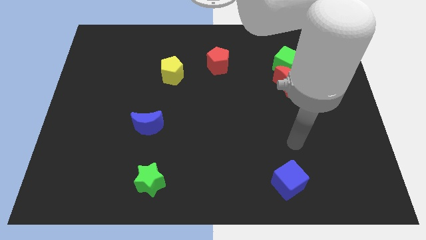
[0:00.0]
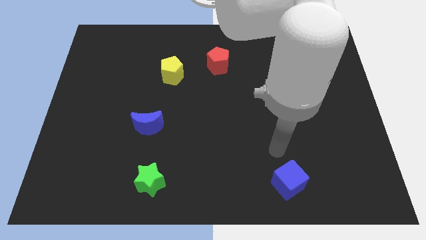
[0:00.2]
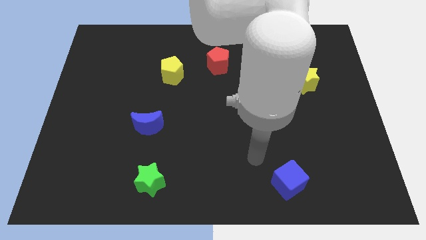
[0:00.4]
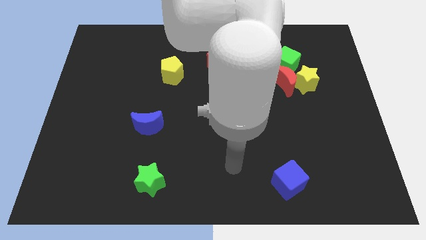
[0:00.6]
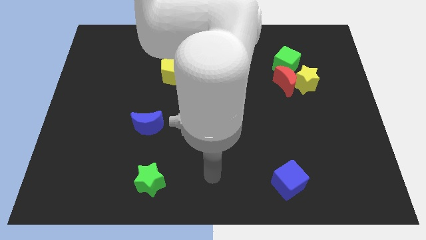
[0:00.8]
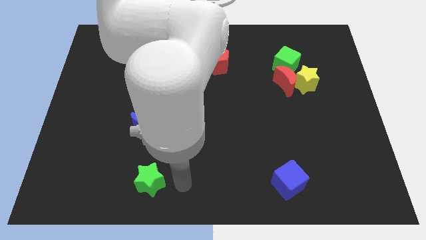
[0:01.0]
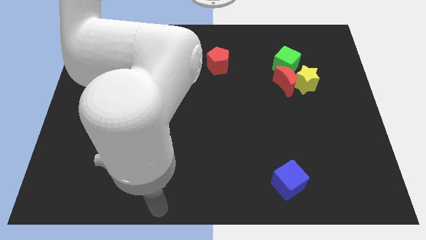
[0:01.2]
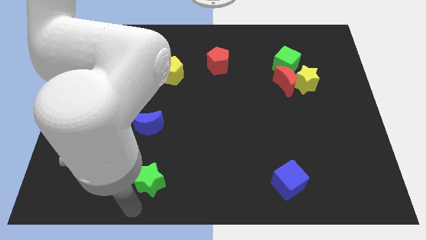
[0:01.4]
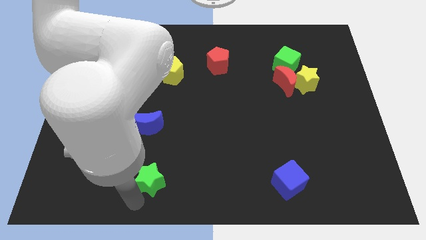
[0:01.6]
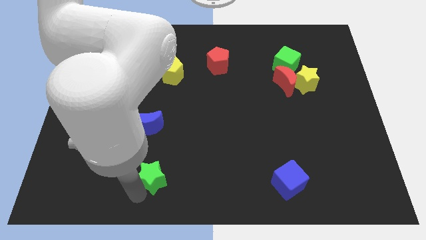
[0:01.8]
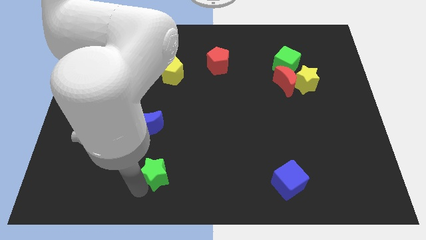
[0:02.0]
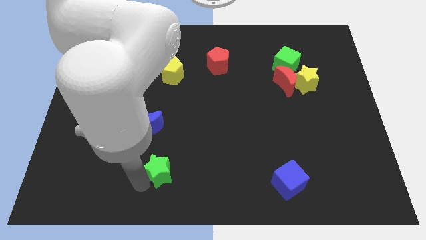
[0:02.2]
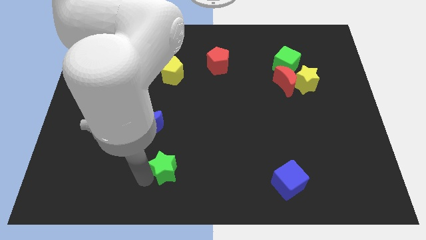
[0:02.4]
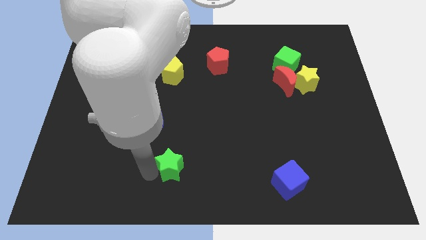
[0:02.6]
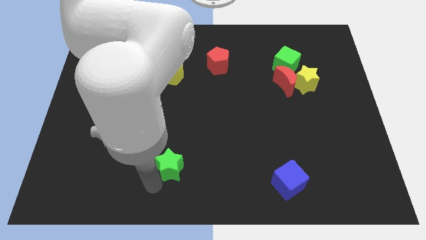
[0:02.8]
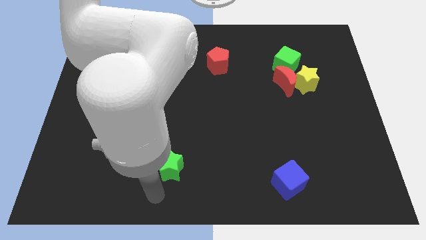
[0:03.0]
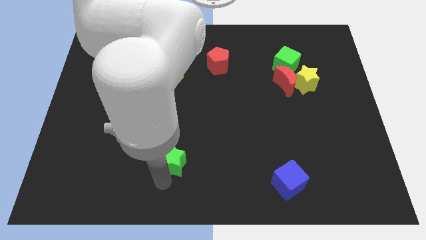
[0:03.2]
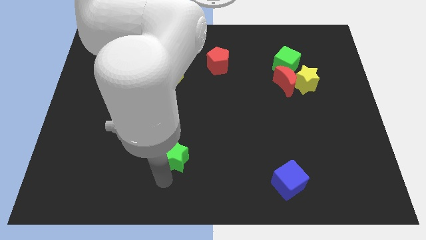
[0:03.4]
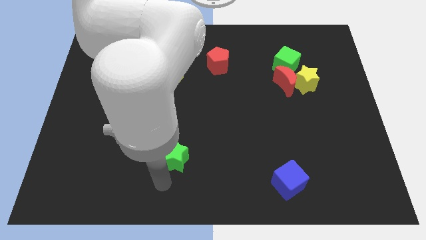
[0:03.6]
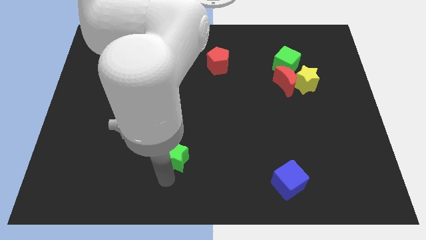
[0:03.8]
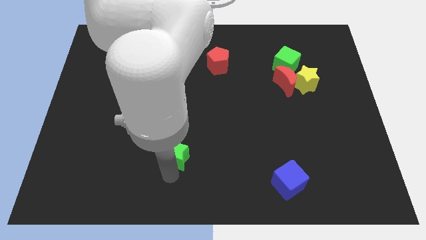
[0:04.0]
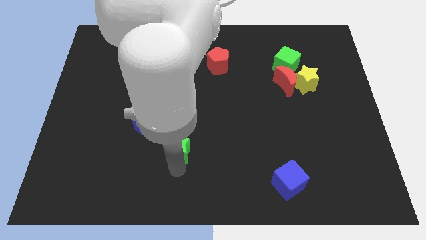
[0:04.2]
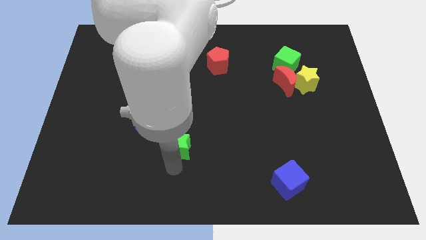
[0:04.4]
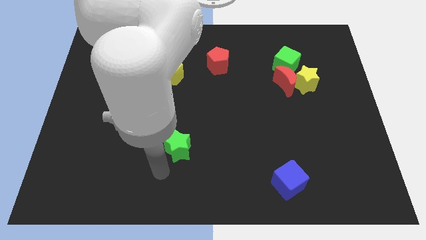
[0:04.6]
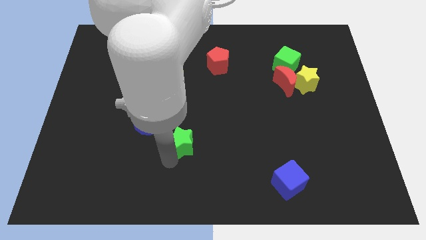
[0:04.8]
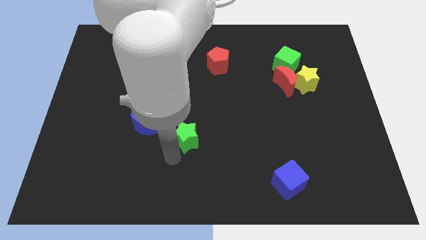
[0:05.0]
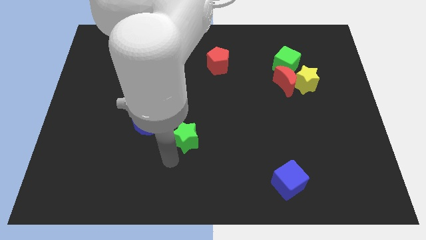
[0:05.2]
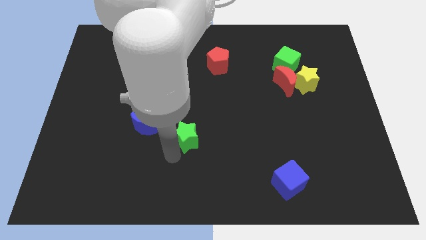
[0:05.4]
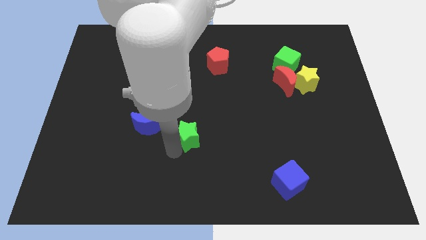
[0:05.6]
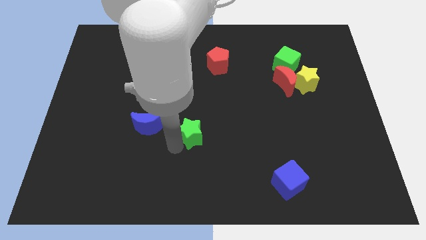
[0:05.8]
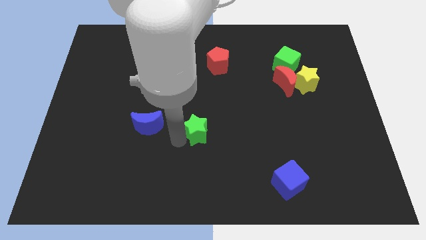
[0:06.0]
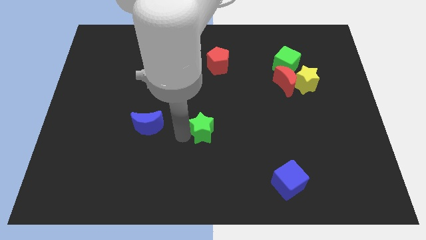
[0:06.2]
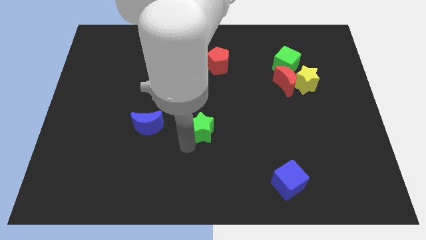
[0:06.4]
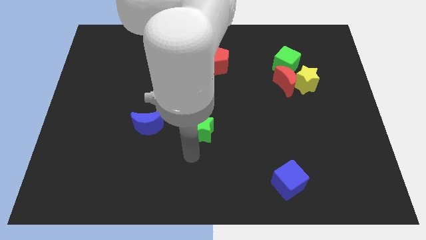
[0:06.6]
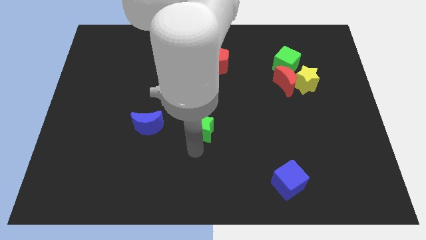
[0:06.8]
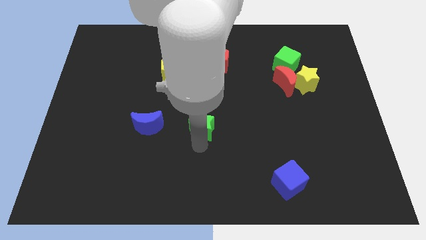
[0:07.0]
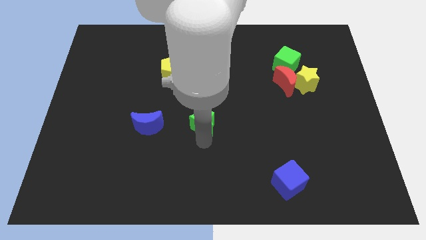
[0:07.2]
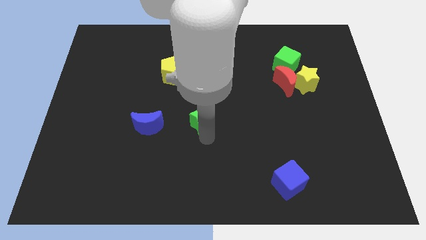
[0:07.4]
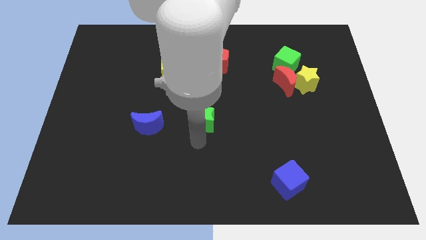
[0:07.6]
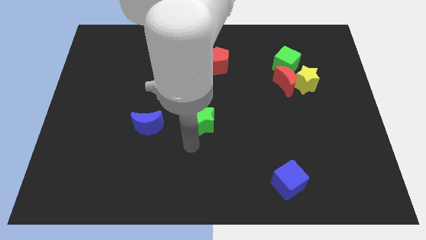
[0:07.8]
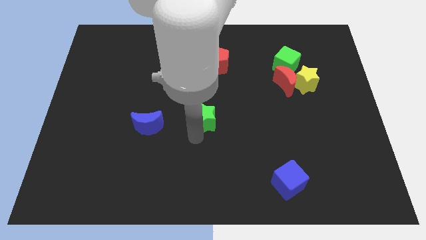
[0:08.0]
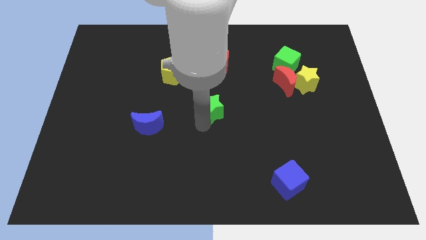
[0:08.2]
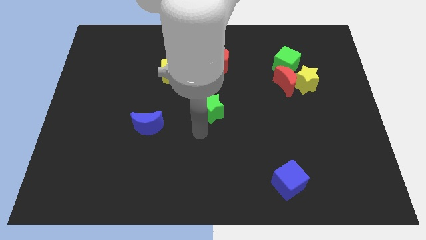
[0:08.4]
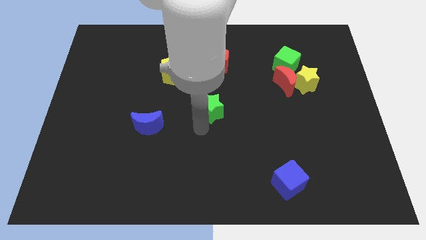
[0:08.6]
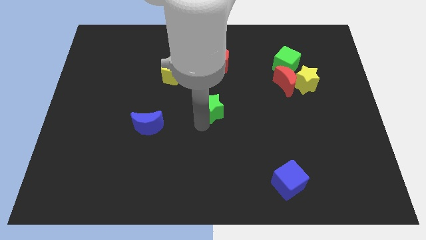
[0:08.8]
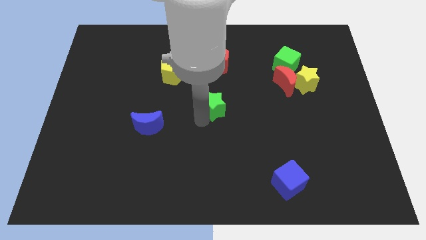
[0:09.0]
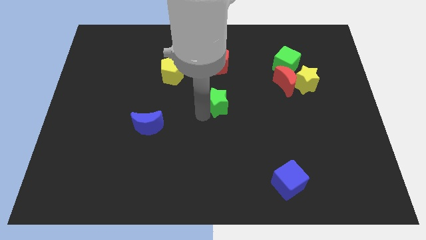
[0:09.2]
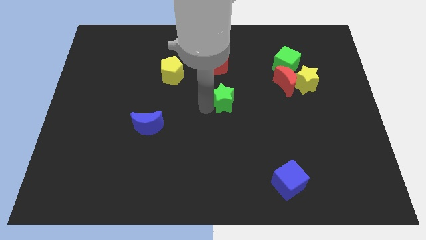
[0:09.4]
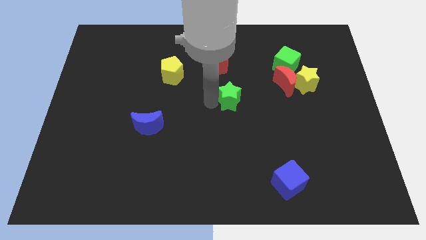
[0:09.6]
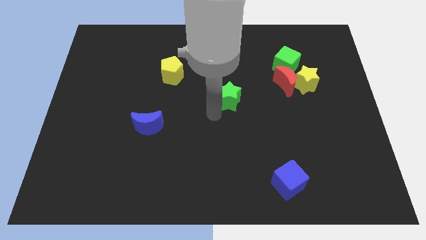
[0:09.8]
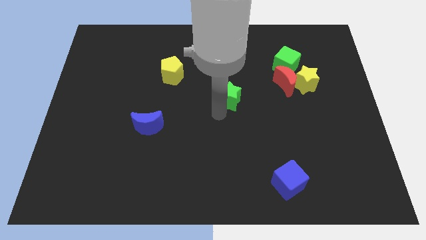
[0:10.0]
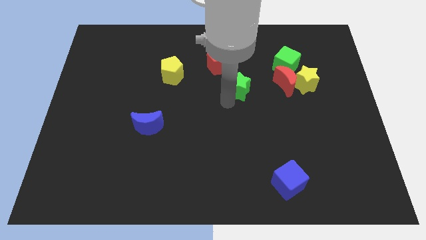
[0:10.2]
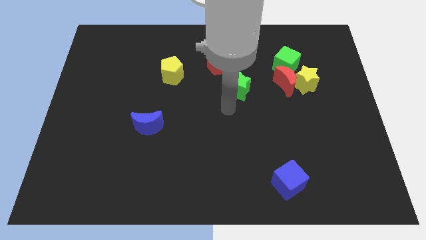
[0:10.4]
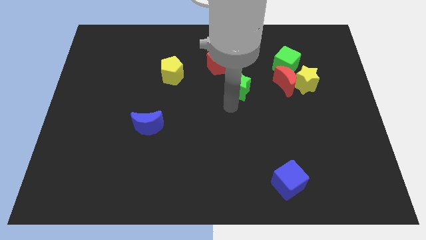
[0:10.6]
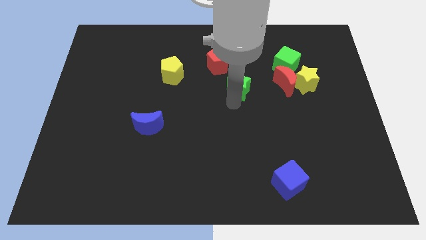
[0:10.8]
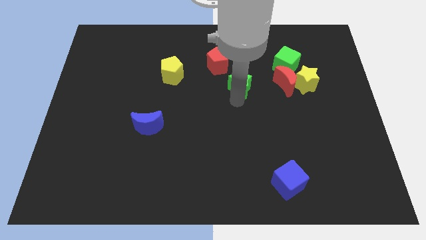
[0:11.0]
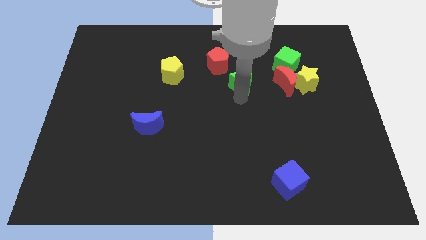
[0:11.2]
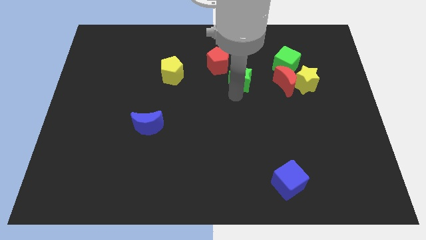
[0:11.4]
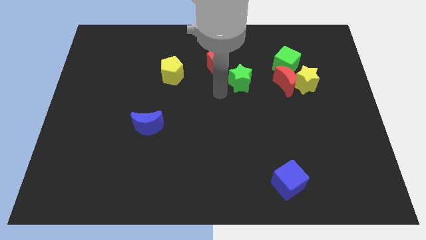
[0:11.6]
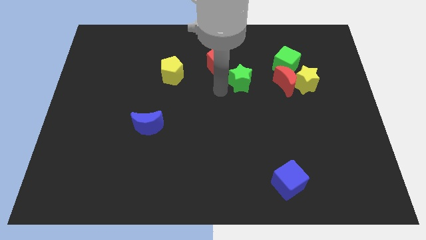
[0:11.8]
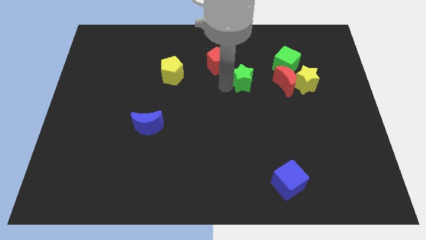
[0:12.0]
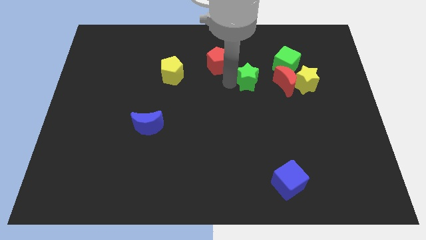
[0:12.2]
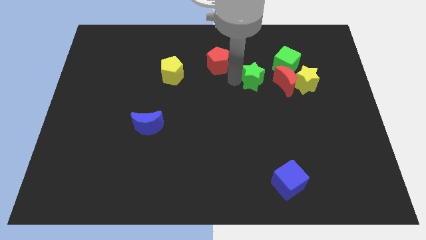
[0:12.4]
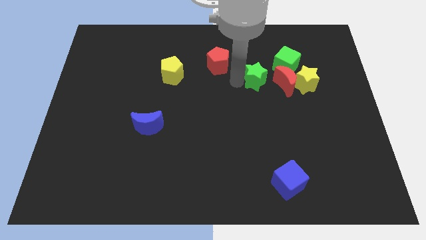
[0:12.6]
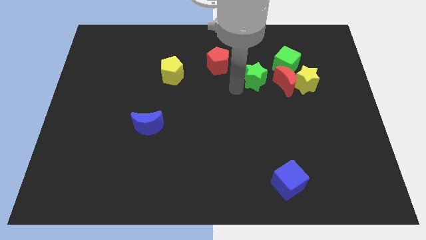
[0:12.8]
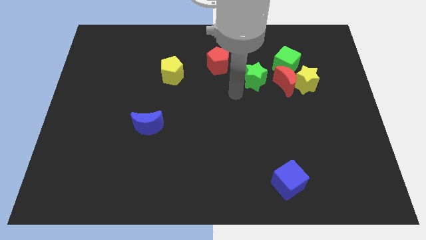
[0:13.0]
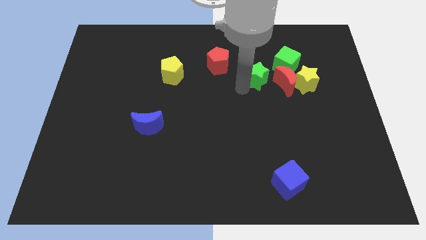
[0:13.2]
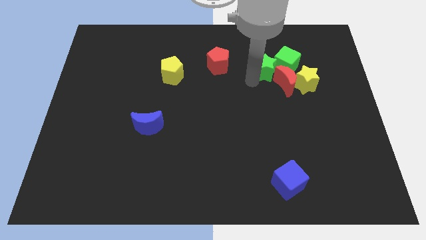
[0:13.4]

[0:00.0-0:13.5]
move the green star towards the green cube

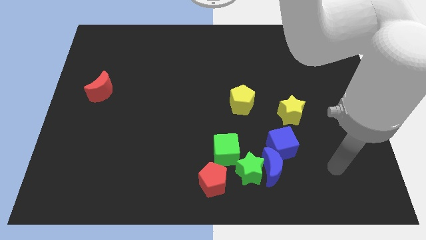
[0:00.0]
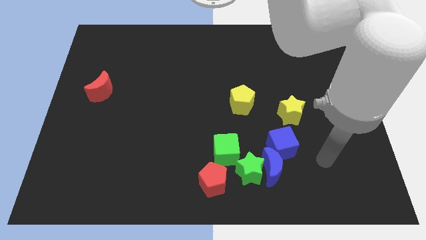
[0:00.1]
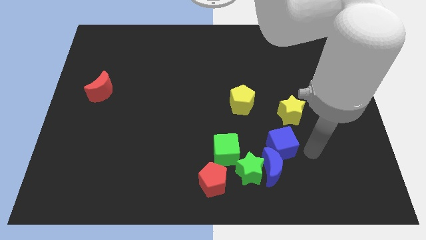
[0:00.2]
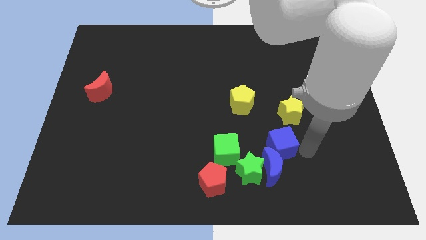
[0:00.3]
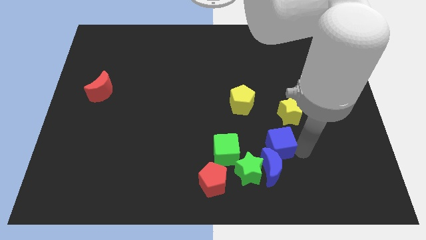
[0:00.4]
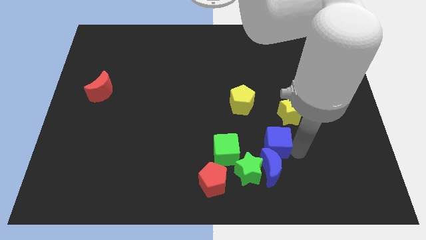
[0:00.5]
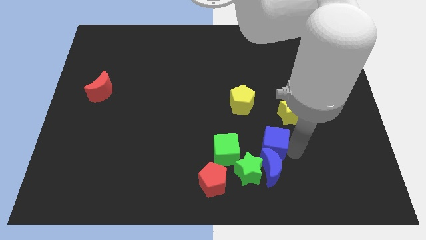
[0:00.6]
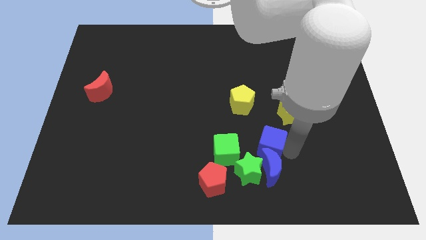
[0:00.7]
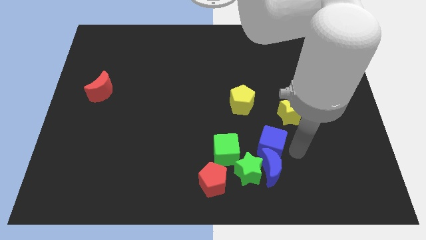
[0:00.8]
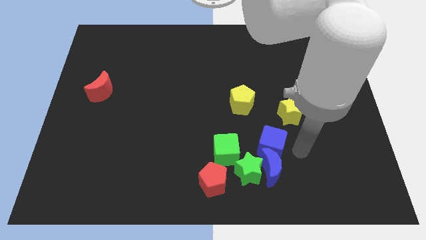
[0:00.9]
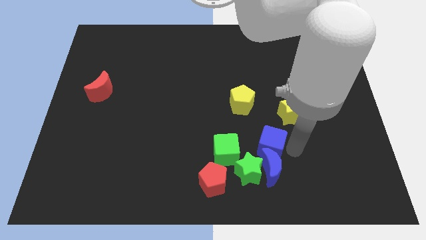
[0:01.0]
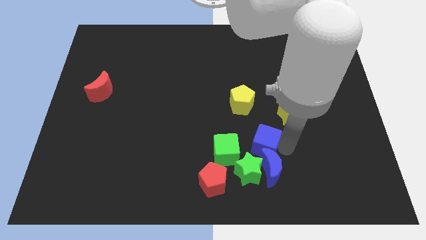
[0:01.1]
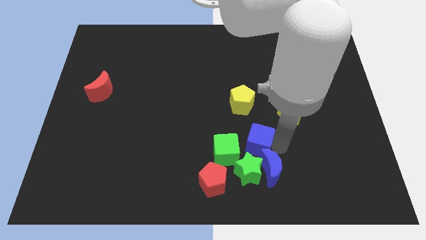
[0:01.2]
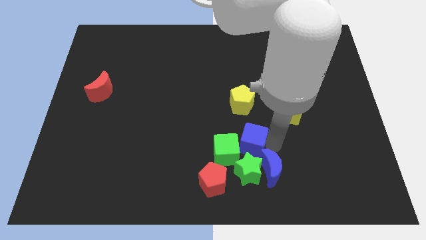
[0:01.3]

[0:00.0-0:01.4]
put the blue cube to the green cube
